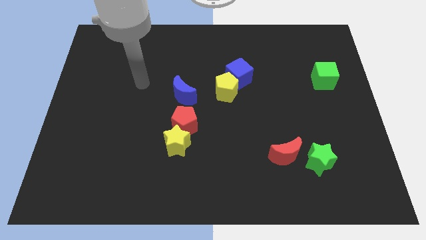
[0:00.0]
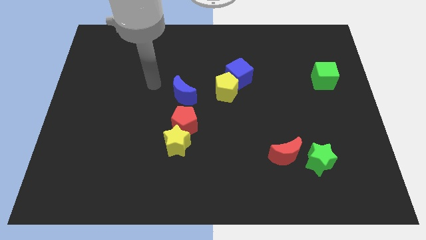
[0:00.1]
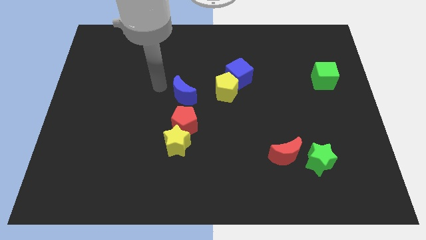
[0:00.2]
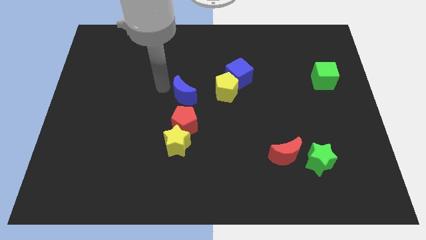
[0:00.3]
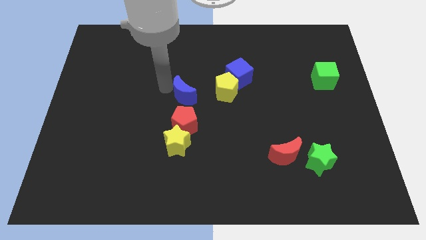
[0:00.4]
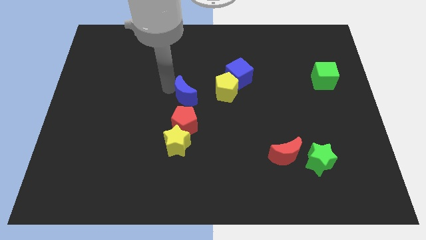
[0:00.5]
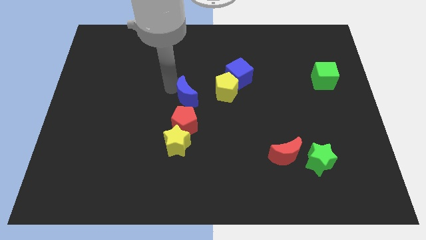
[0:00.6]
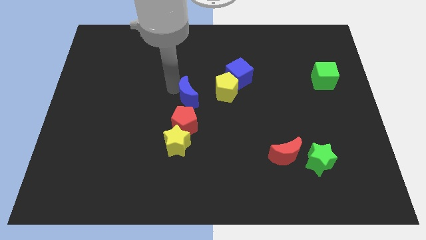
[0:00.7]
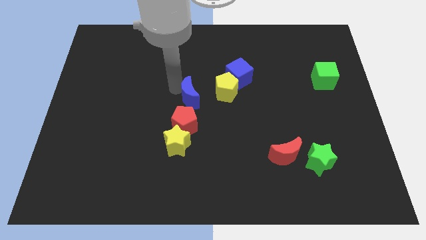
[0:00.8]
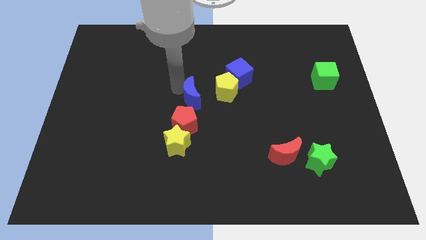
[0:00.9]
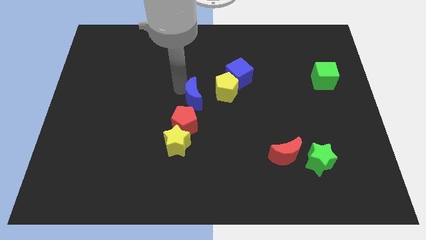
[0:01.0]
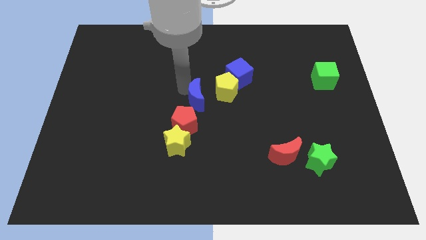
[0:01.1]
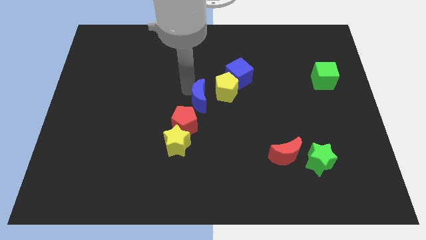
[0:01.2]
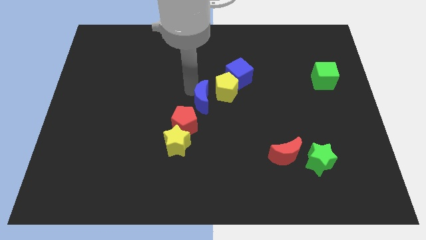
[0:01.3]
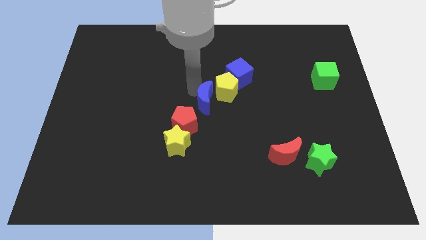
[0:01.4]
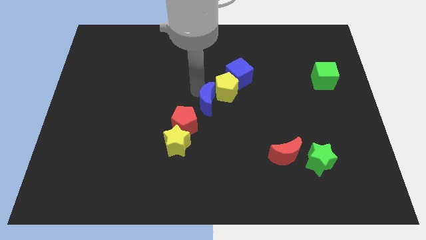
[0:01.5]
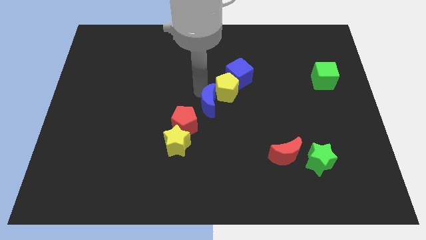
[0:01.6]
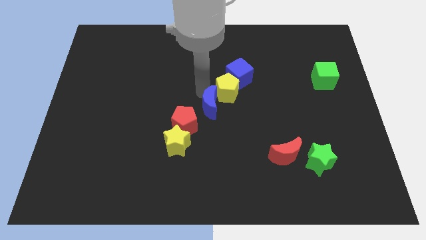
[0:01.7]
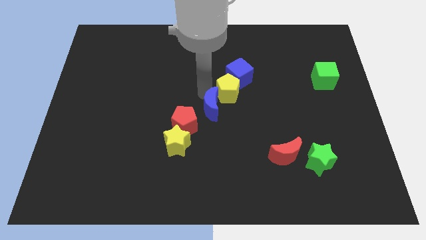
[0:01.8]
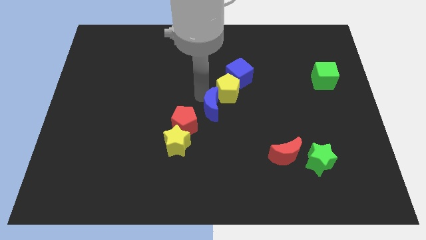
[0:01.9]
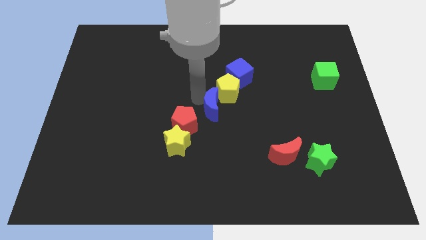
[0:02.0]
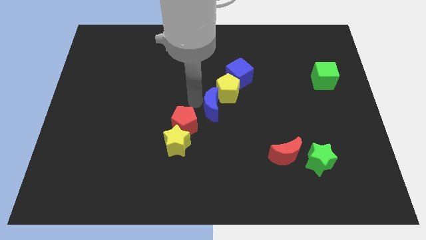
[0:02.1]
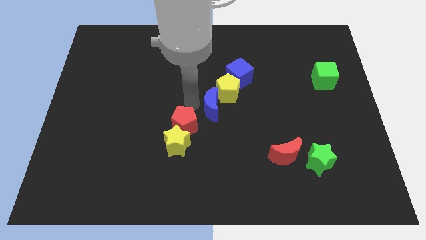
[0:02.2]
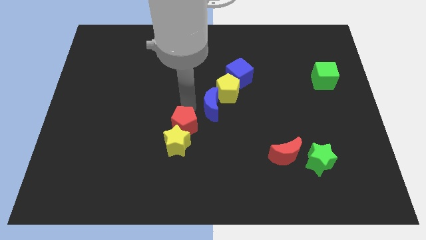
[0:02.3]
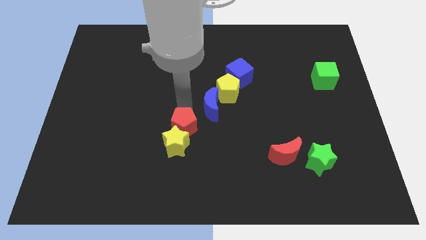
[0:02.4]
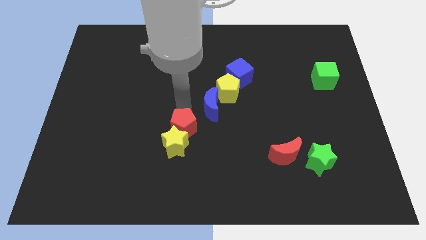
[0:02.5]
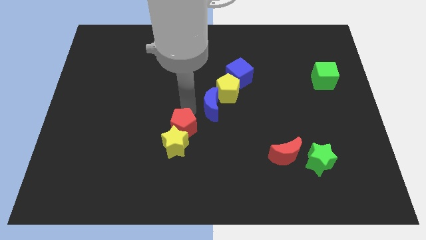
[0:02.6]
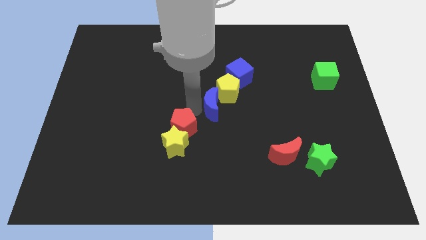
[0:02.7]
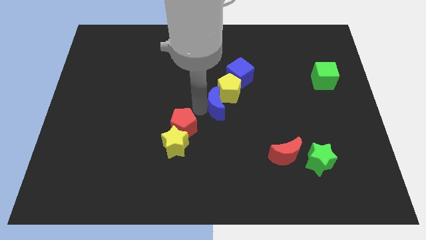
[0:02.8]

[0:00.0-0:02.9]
slightly move the blue moon right

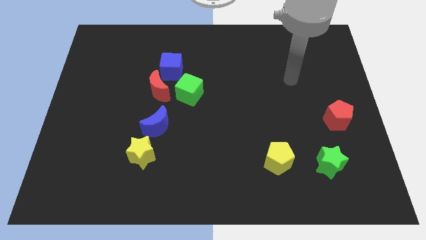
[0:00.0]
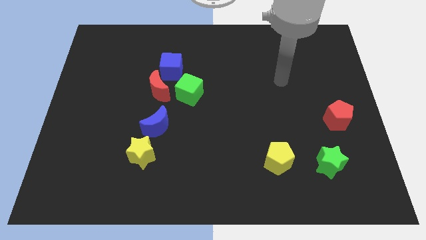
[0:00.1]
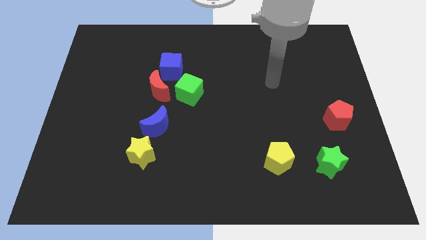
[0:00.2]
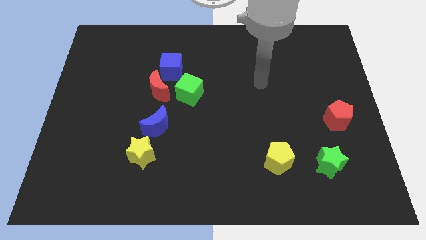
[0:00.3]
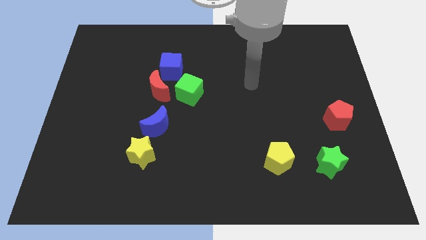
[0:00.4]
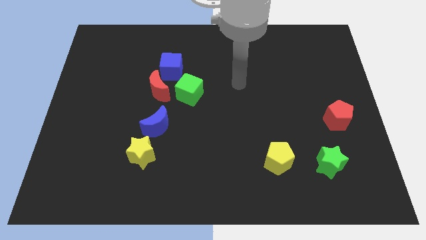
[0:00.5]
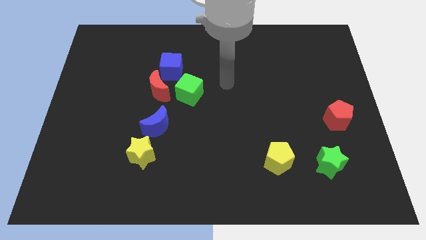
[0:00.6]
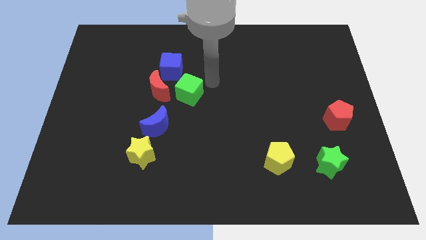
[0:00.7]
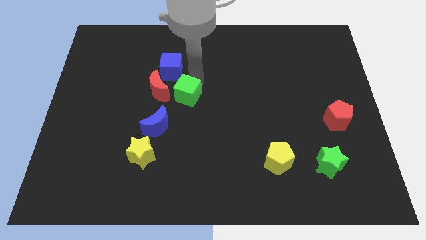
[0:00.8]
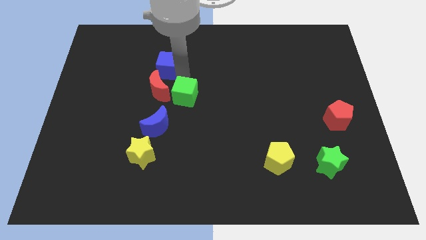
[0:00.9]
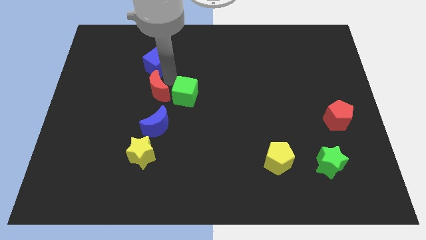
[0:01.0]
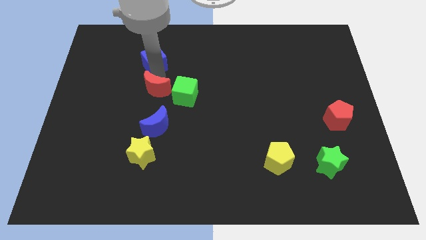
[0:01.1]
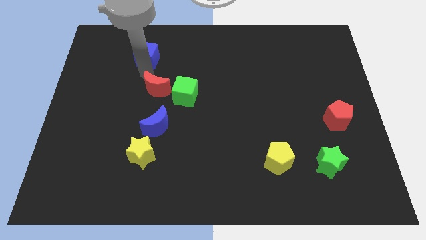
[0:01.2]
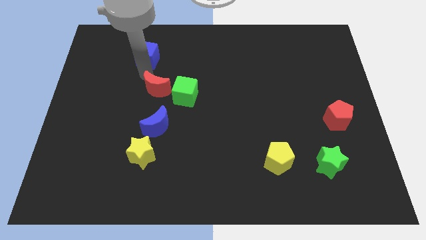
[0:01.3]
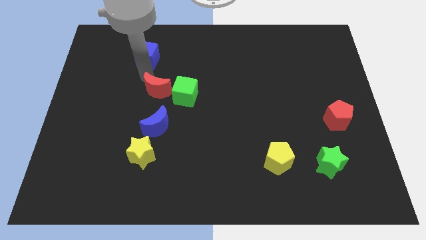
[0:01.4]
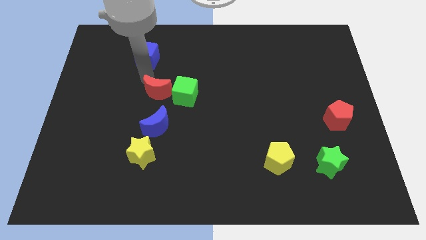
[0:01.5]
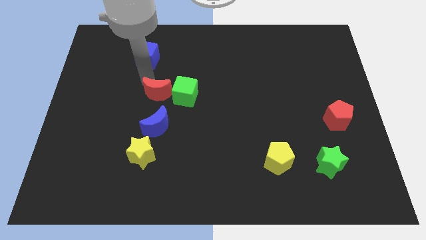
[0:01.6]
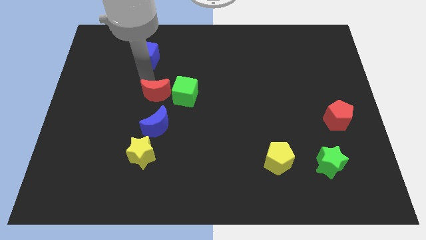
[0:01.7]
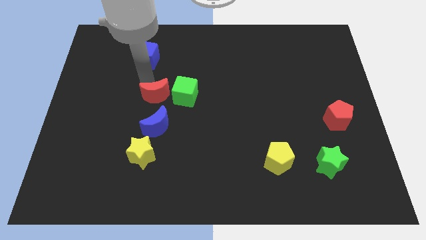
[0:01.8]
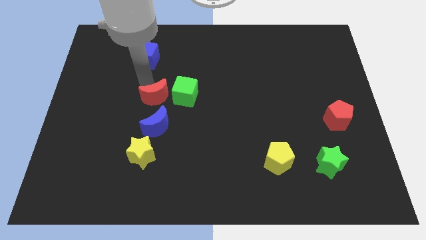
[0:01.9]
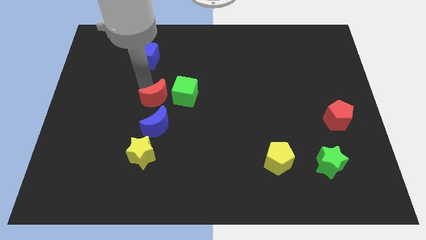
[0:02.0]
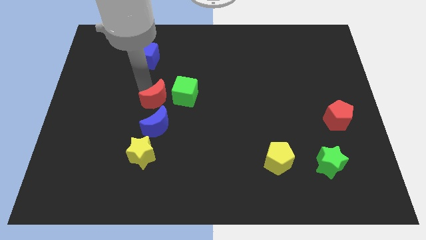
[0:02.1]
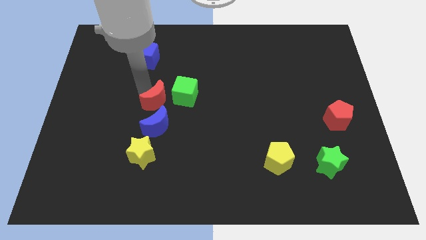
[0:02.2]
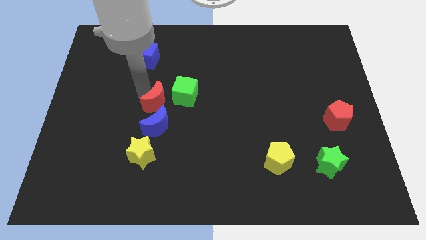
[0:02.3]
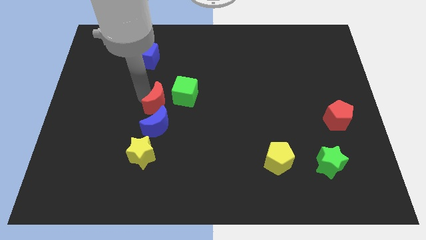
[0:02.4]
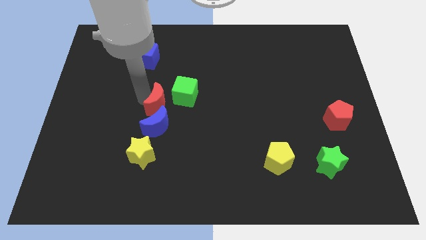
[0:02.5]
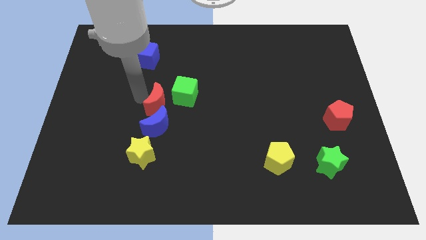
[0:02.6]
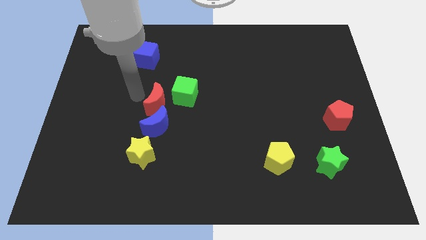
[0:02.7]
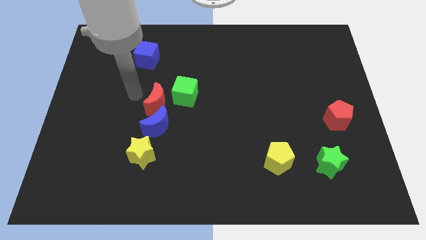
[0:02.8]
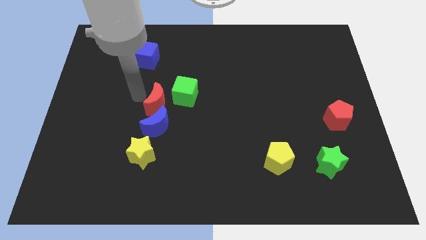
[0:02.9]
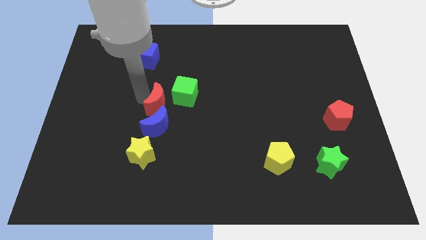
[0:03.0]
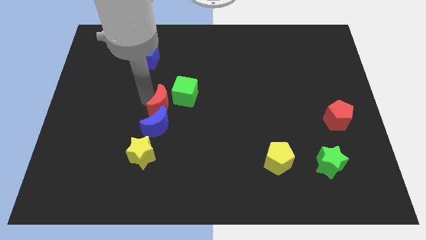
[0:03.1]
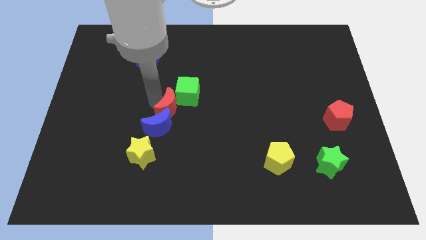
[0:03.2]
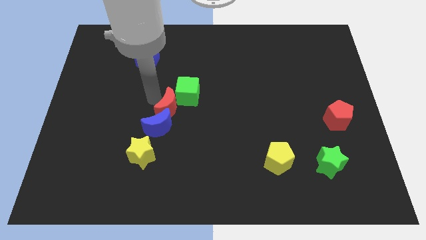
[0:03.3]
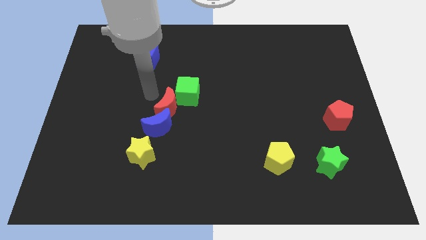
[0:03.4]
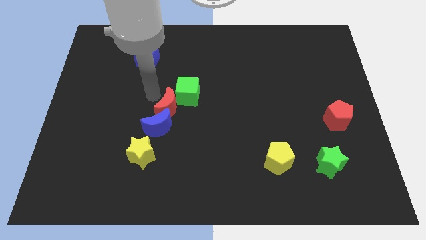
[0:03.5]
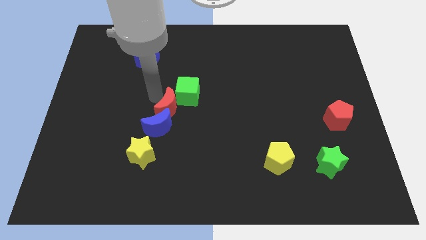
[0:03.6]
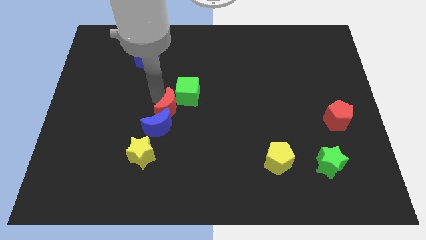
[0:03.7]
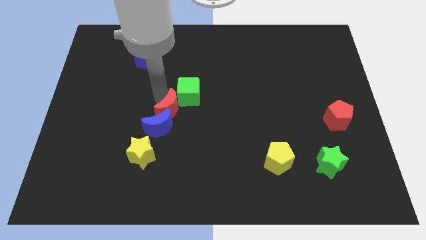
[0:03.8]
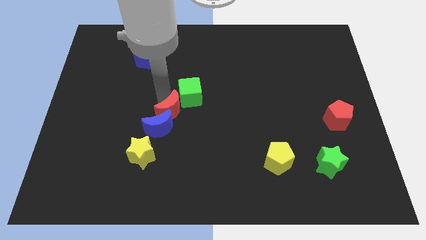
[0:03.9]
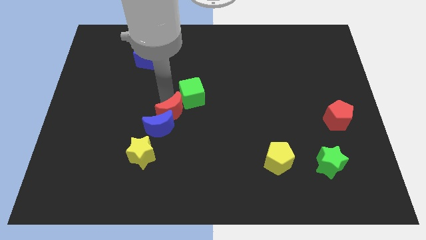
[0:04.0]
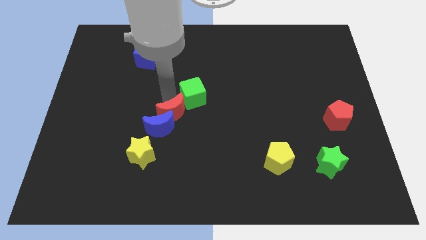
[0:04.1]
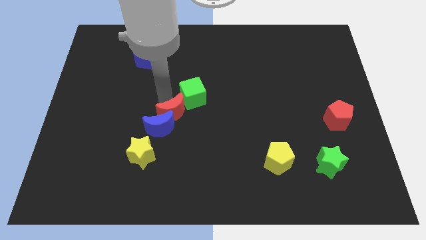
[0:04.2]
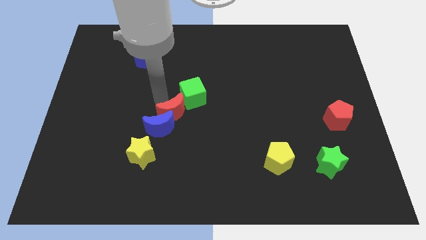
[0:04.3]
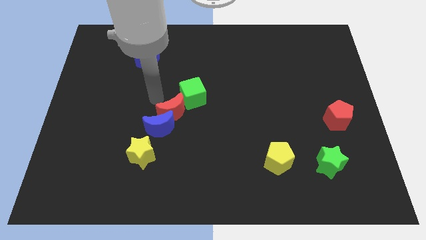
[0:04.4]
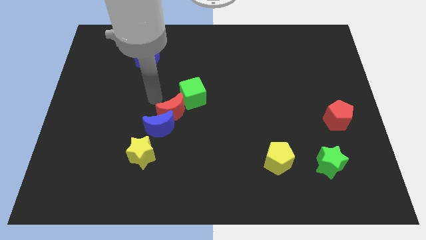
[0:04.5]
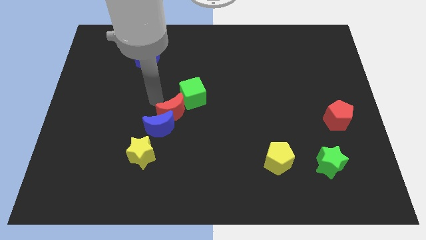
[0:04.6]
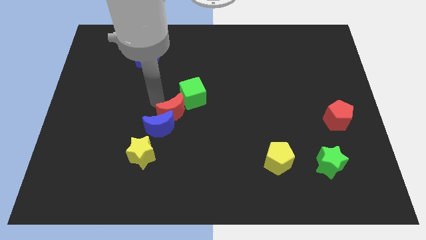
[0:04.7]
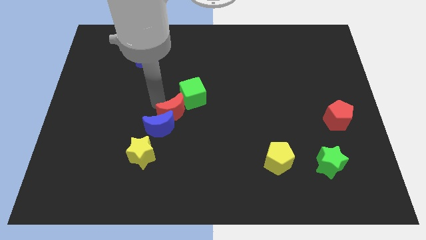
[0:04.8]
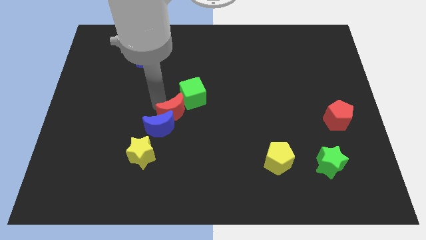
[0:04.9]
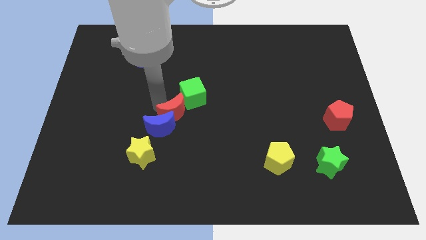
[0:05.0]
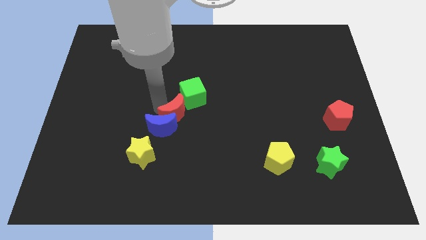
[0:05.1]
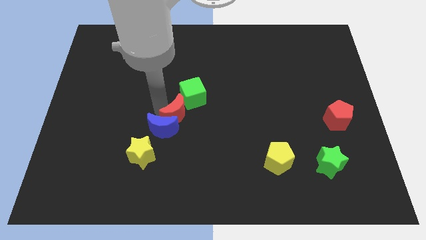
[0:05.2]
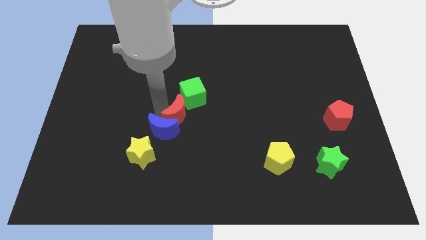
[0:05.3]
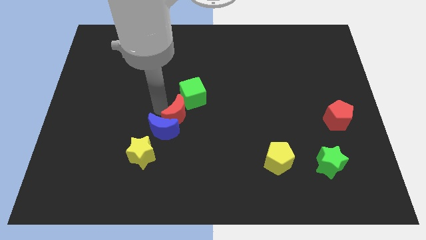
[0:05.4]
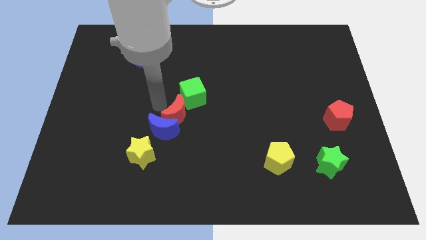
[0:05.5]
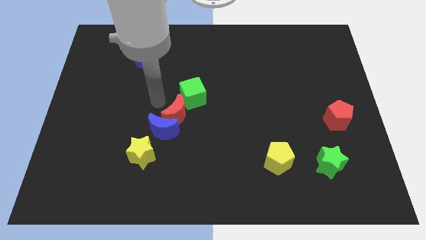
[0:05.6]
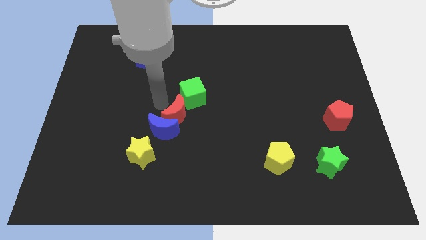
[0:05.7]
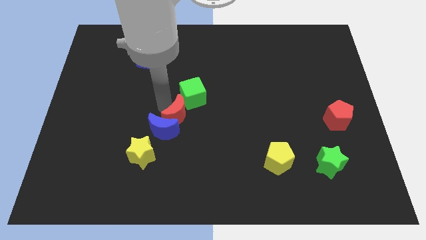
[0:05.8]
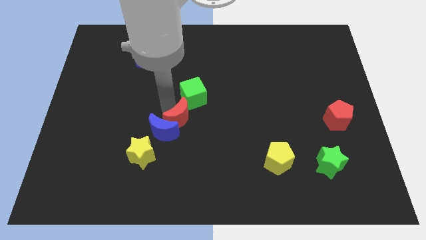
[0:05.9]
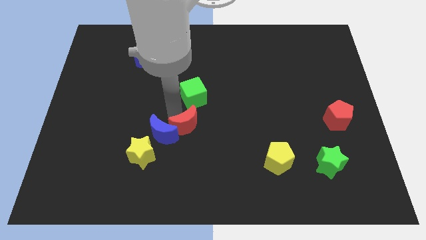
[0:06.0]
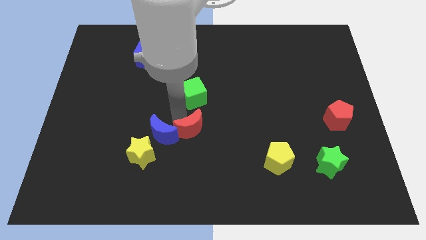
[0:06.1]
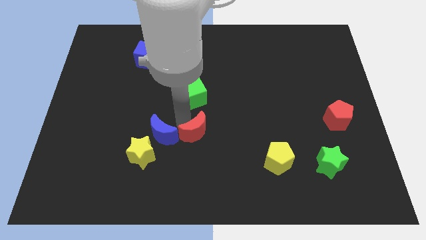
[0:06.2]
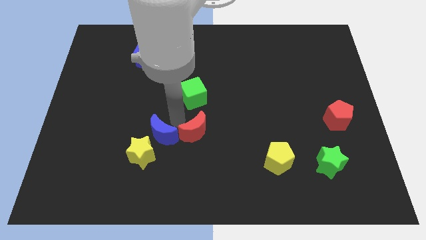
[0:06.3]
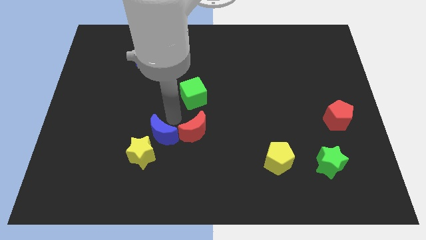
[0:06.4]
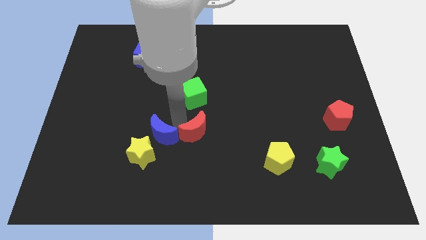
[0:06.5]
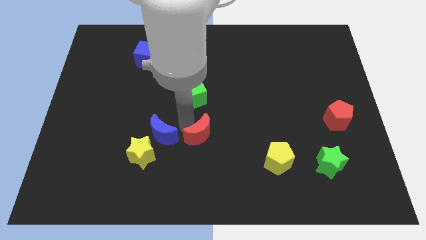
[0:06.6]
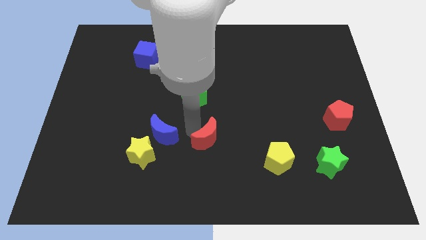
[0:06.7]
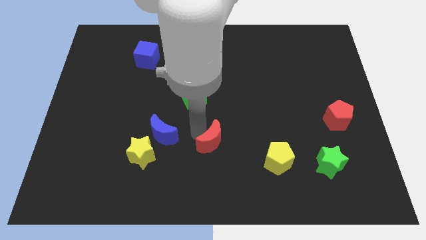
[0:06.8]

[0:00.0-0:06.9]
move the red moon down and to the right
